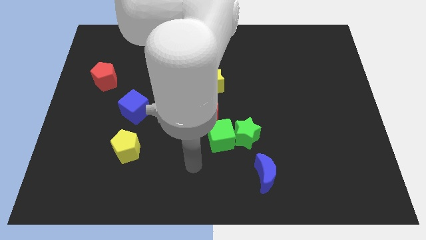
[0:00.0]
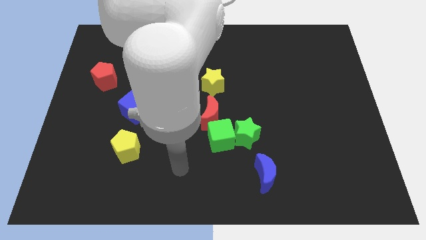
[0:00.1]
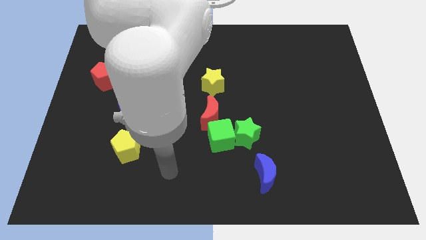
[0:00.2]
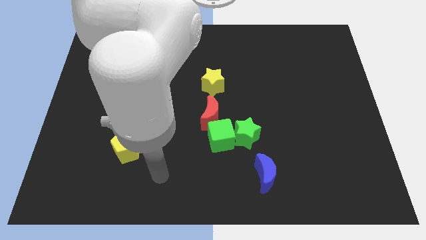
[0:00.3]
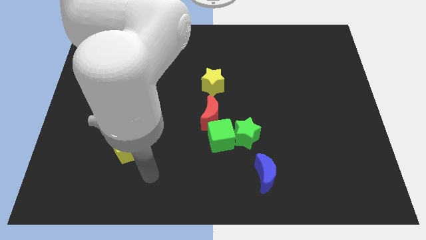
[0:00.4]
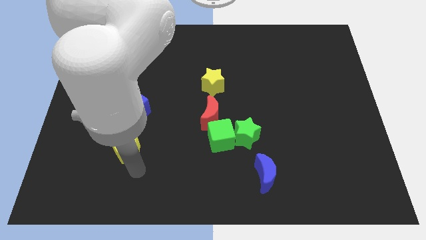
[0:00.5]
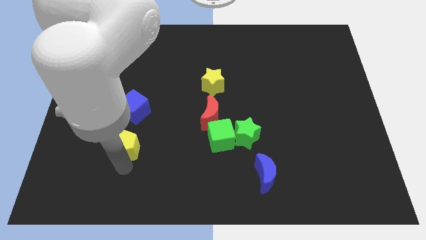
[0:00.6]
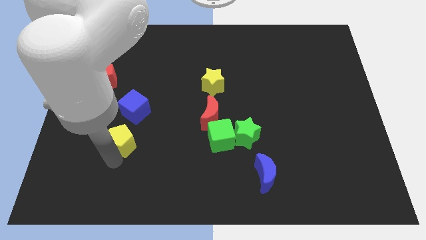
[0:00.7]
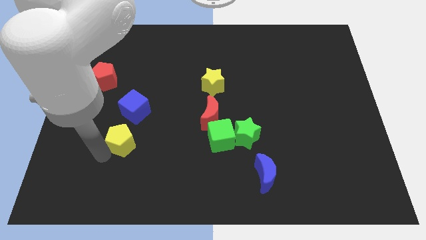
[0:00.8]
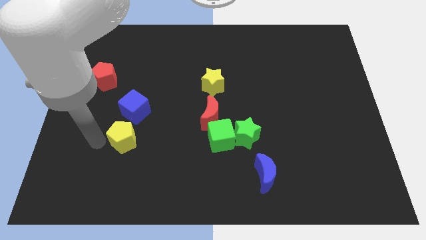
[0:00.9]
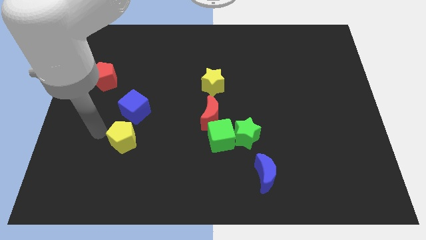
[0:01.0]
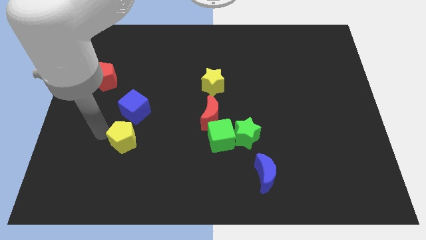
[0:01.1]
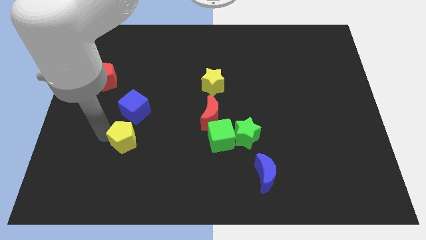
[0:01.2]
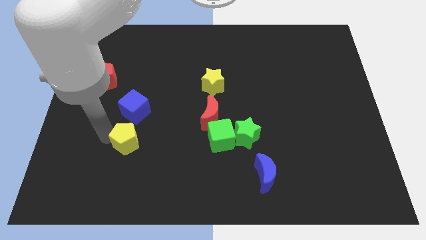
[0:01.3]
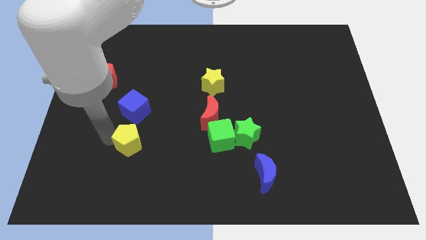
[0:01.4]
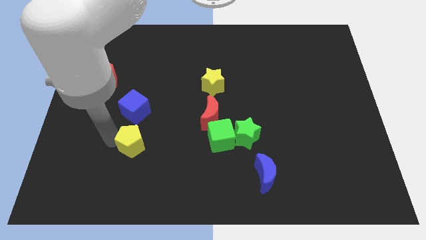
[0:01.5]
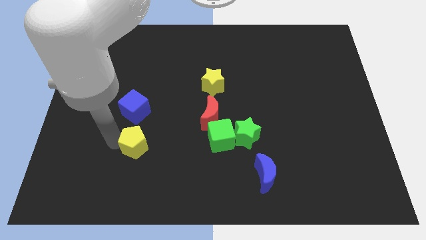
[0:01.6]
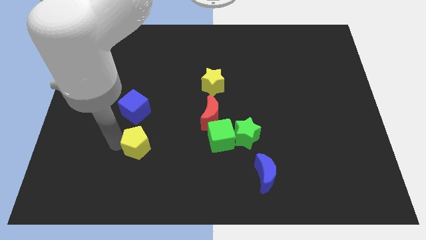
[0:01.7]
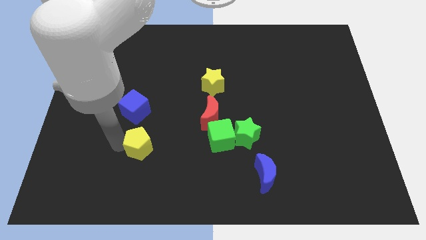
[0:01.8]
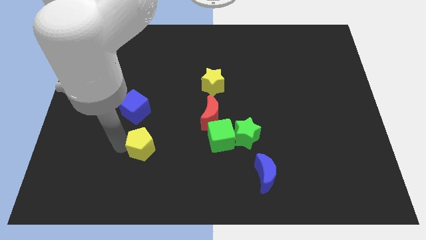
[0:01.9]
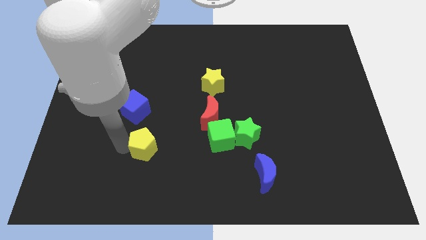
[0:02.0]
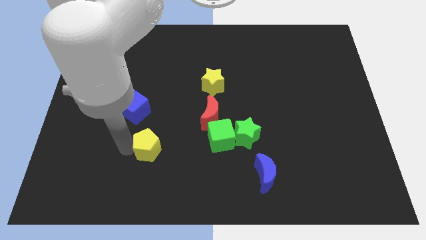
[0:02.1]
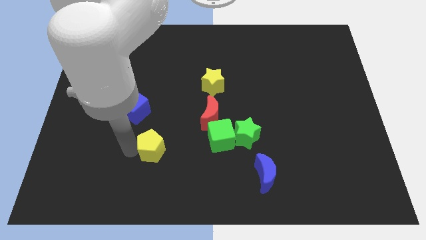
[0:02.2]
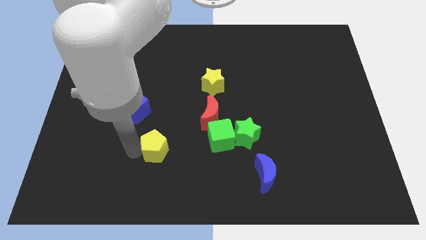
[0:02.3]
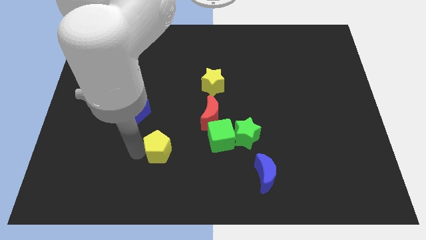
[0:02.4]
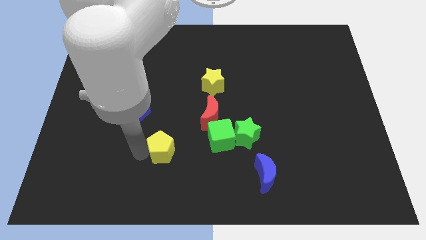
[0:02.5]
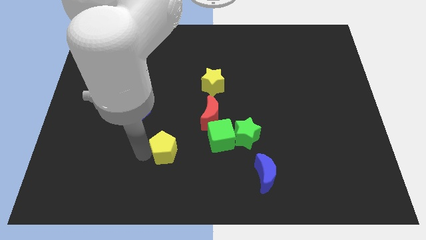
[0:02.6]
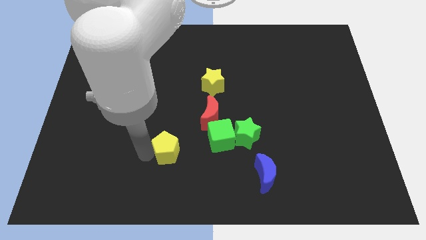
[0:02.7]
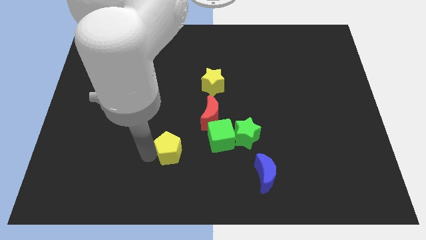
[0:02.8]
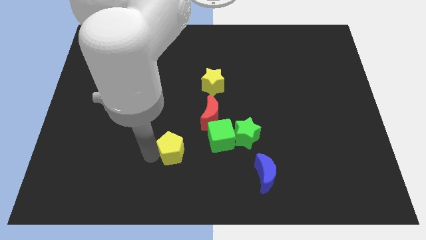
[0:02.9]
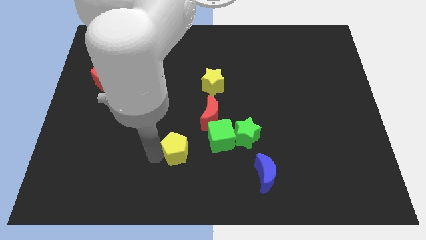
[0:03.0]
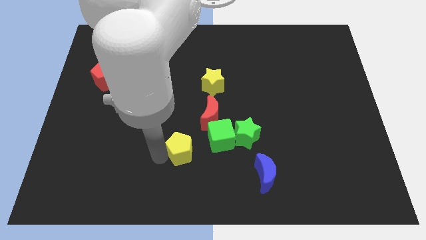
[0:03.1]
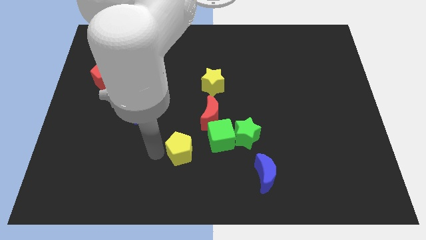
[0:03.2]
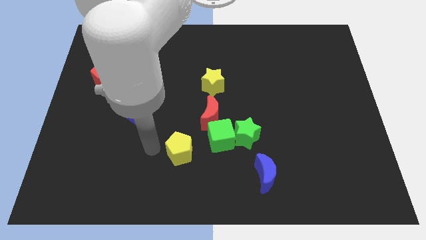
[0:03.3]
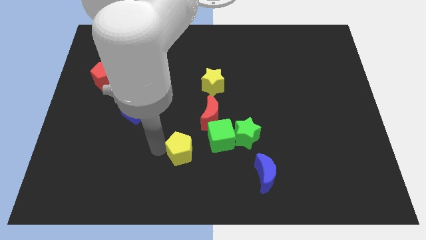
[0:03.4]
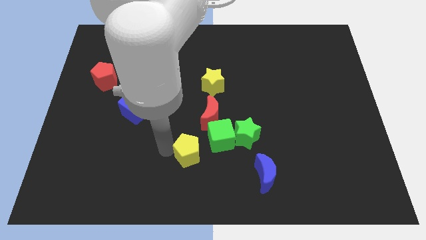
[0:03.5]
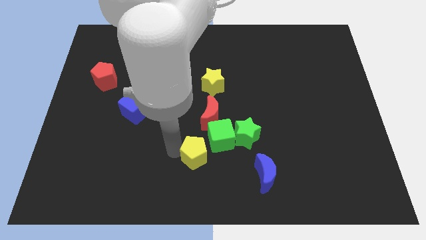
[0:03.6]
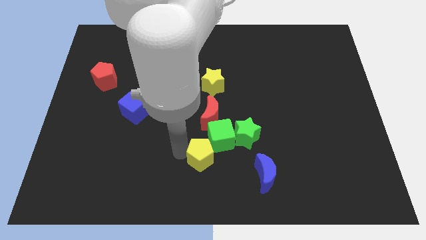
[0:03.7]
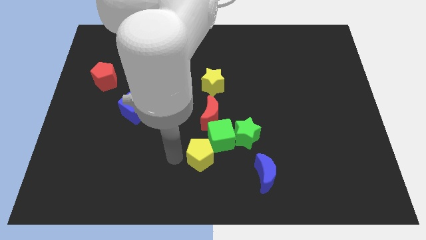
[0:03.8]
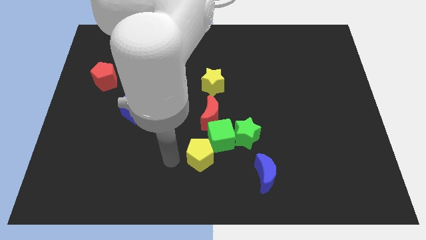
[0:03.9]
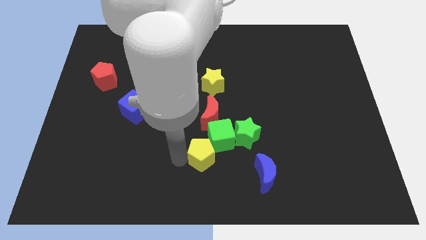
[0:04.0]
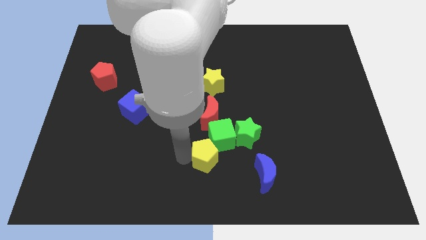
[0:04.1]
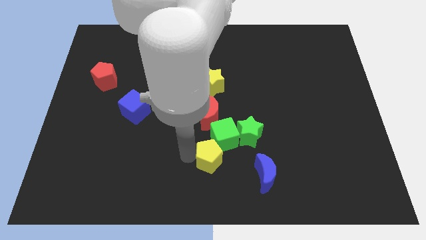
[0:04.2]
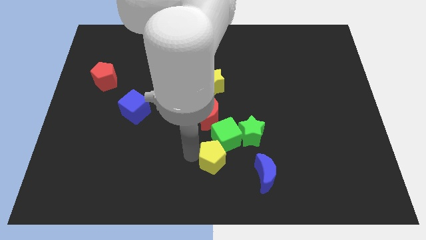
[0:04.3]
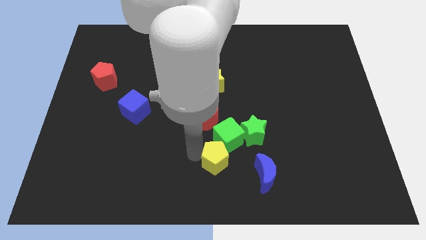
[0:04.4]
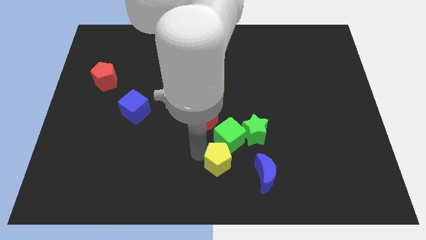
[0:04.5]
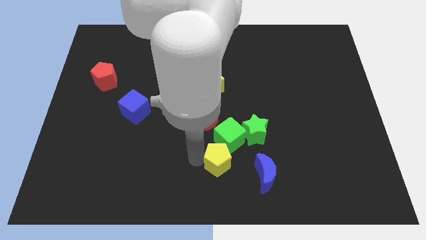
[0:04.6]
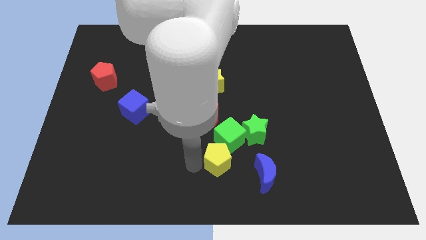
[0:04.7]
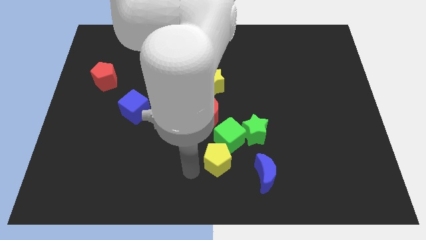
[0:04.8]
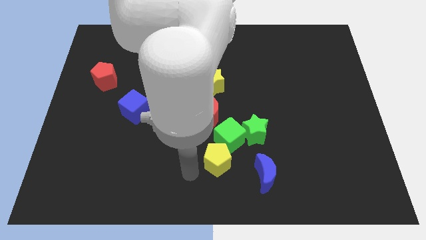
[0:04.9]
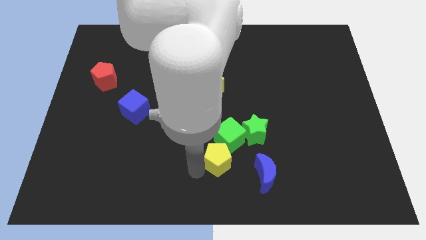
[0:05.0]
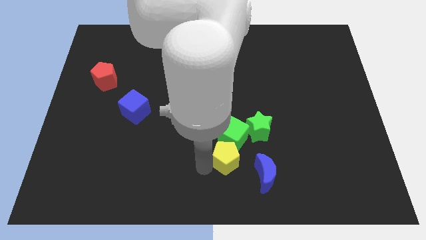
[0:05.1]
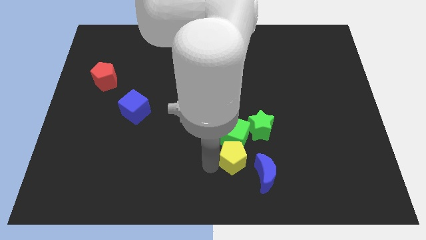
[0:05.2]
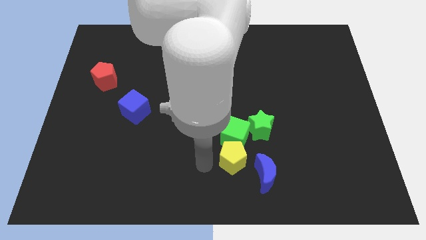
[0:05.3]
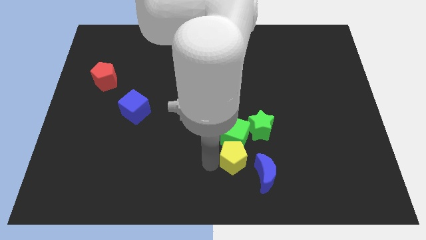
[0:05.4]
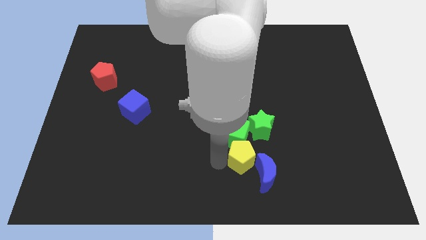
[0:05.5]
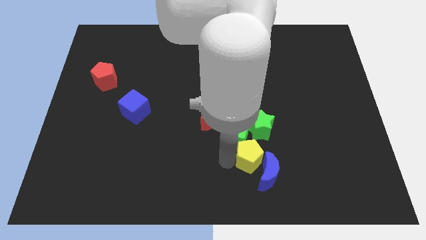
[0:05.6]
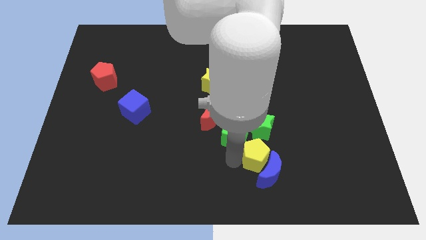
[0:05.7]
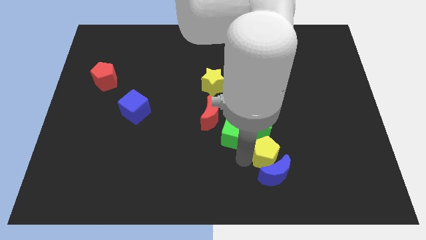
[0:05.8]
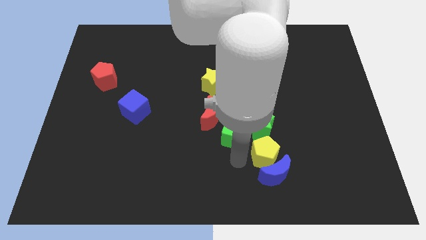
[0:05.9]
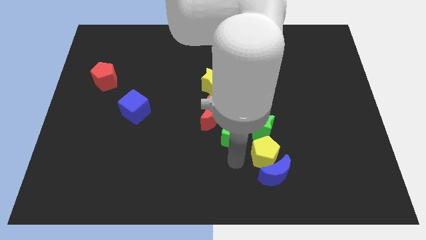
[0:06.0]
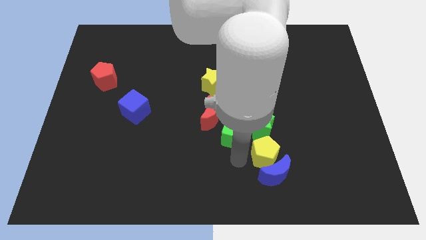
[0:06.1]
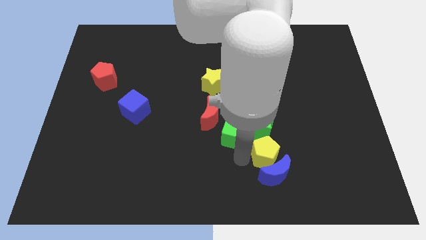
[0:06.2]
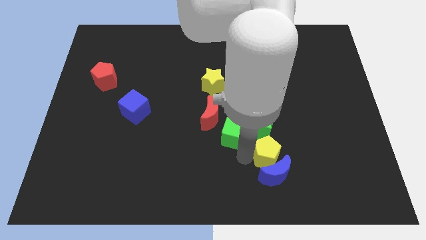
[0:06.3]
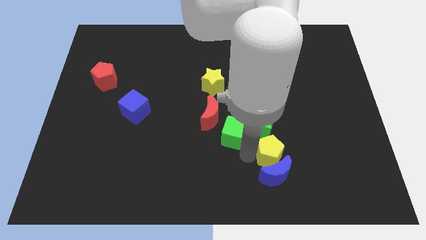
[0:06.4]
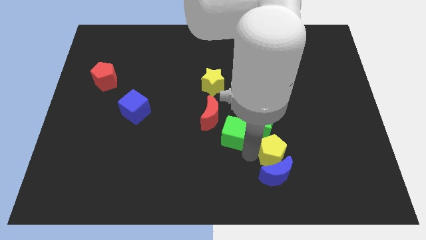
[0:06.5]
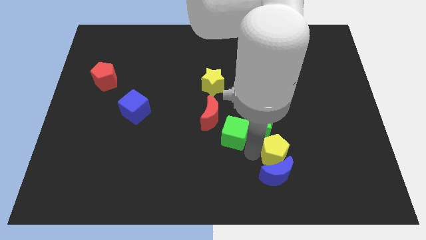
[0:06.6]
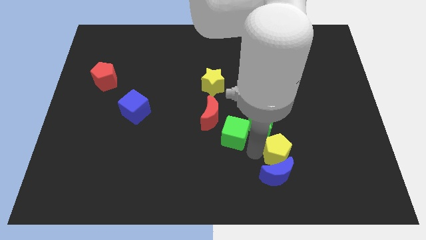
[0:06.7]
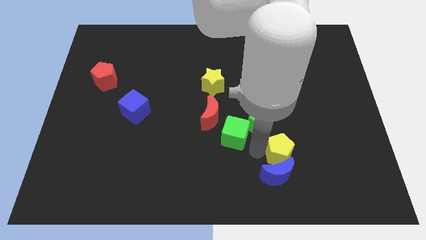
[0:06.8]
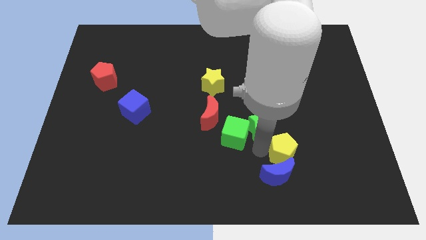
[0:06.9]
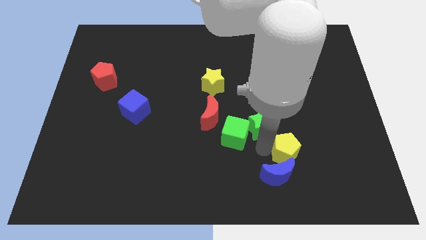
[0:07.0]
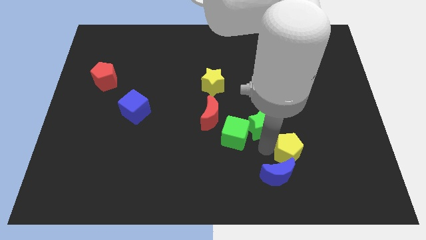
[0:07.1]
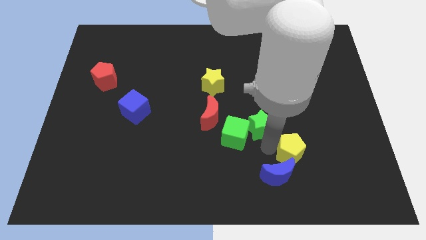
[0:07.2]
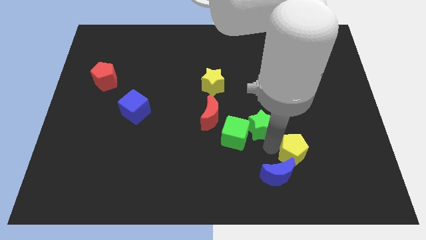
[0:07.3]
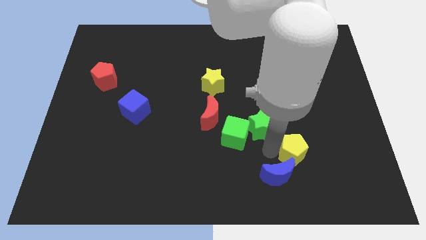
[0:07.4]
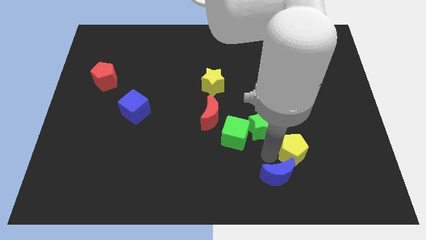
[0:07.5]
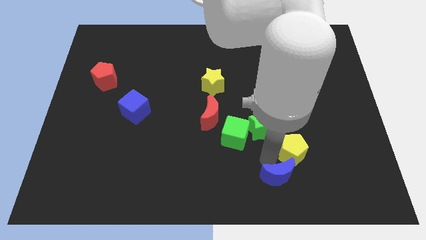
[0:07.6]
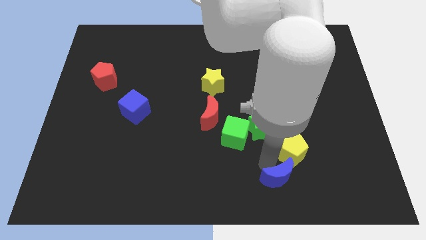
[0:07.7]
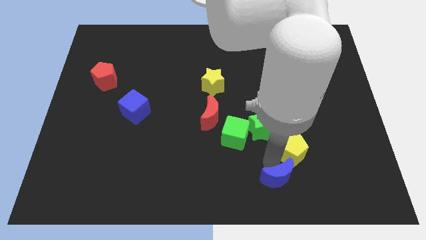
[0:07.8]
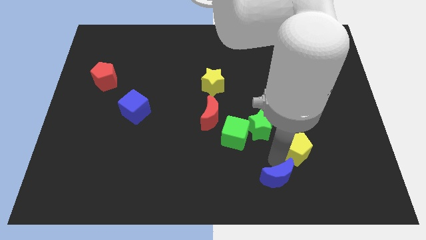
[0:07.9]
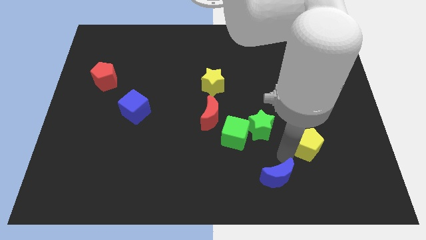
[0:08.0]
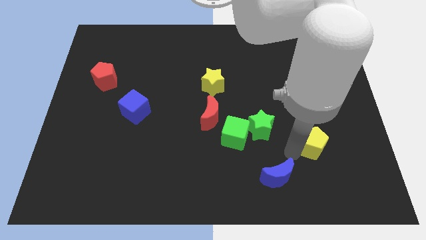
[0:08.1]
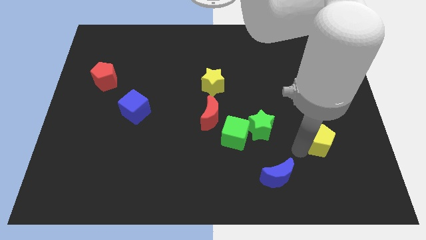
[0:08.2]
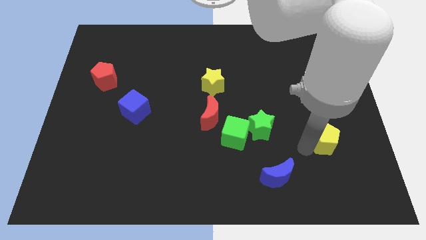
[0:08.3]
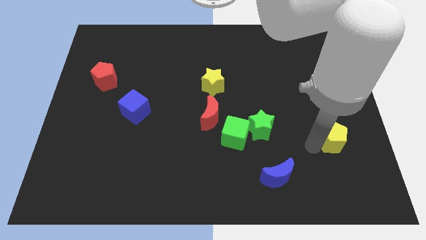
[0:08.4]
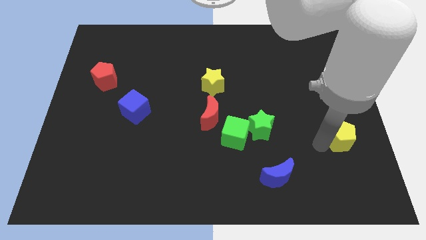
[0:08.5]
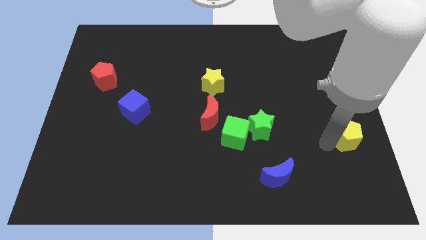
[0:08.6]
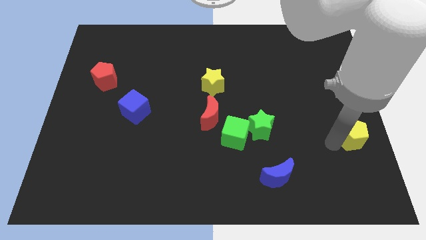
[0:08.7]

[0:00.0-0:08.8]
put the yellow pentagon to the right side of the board
